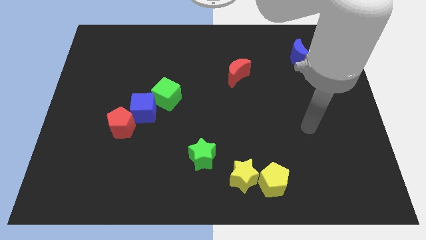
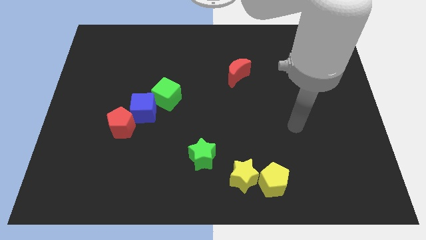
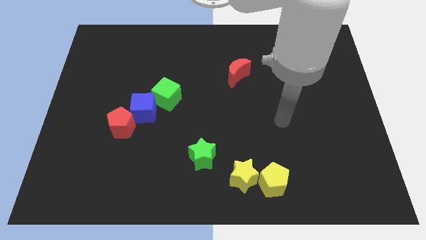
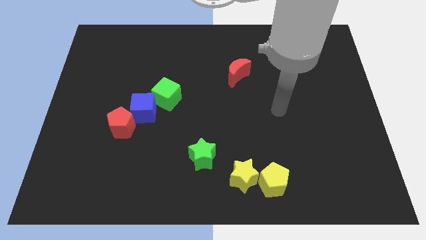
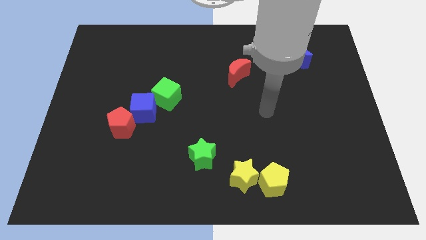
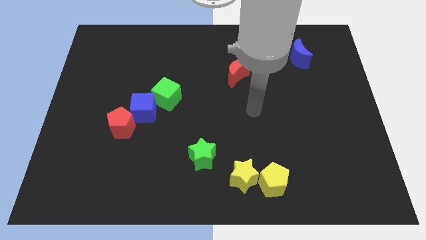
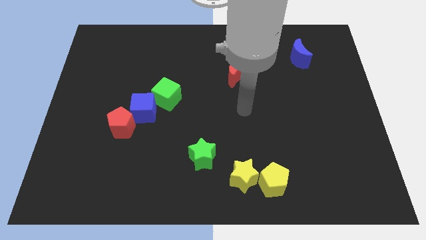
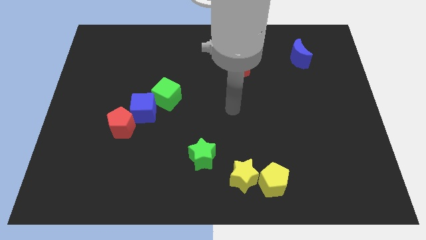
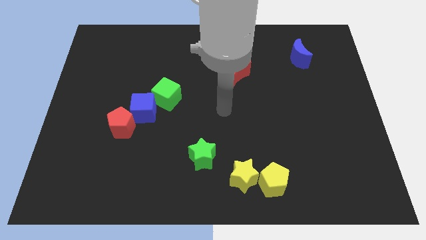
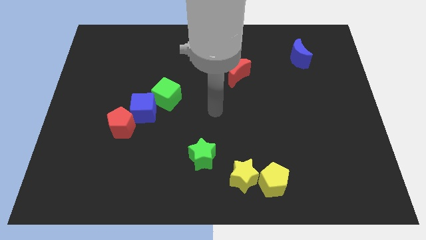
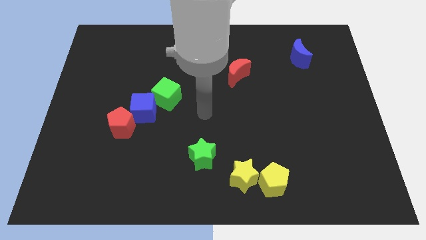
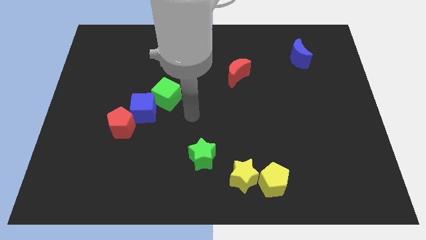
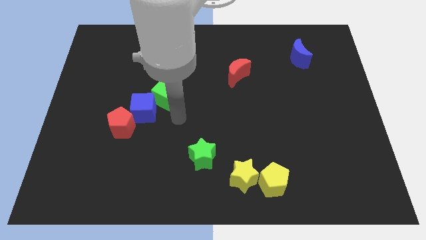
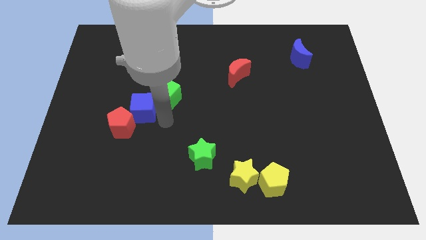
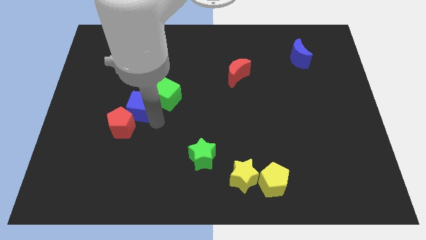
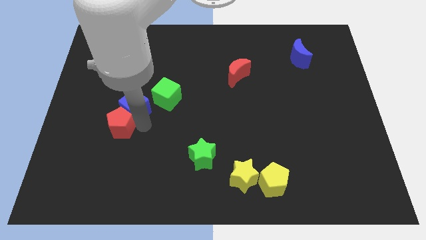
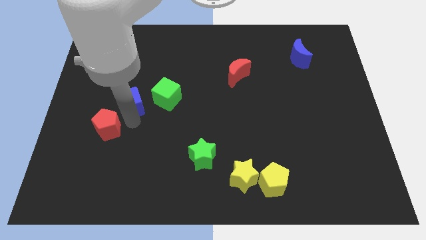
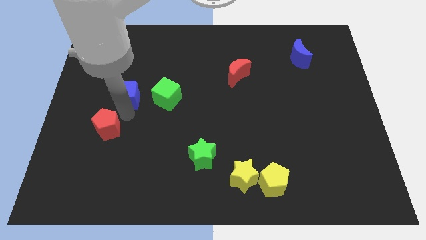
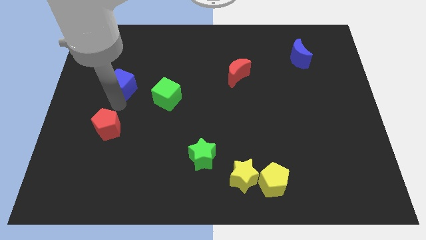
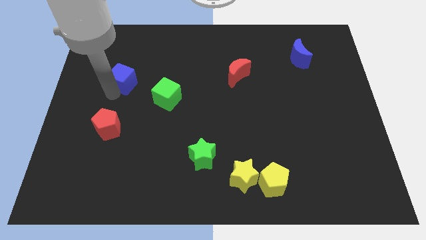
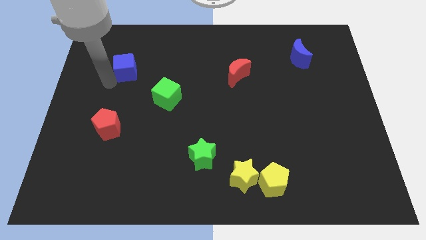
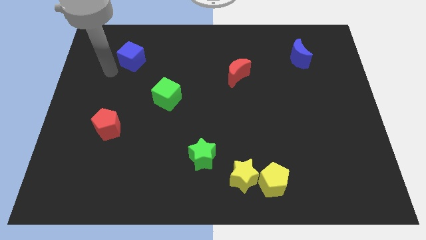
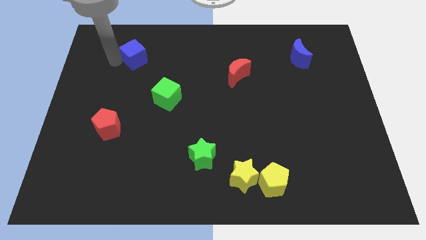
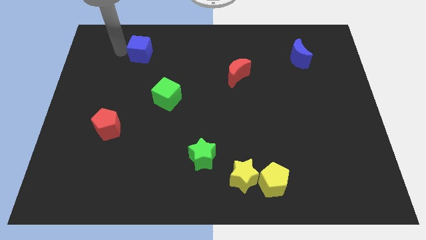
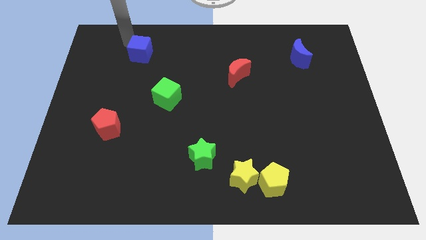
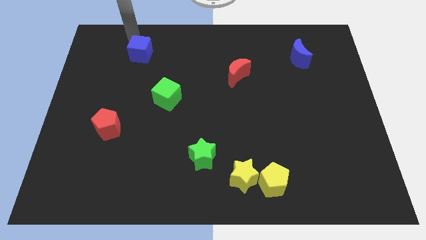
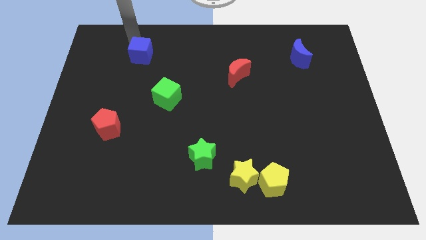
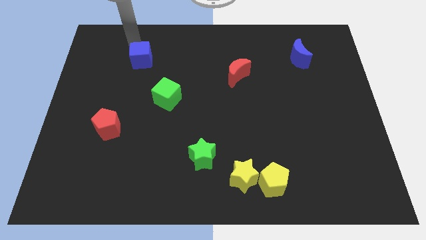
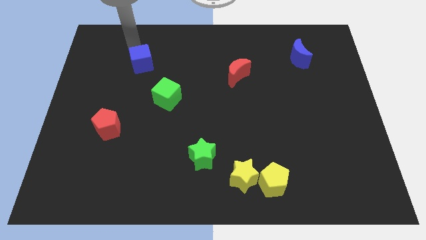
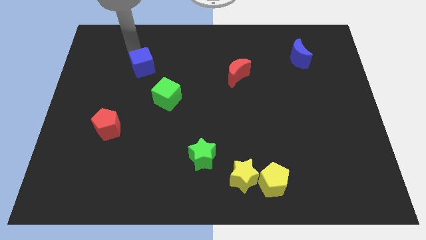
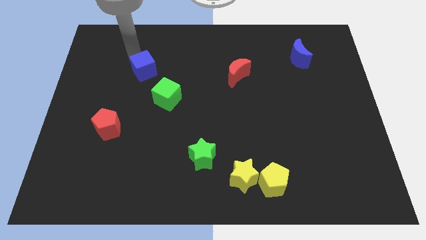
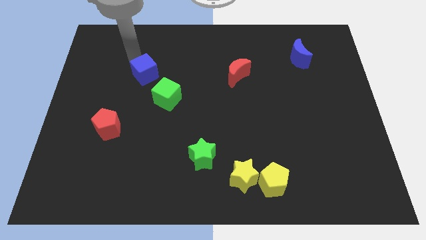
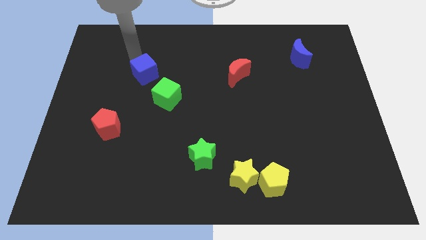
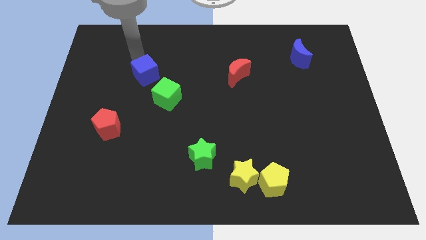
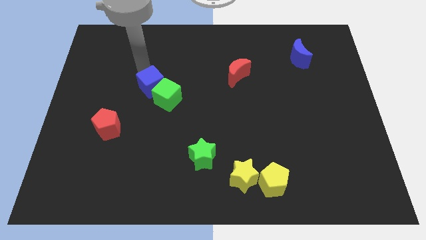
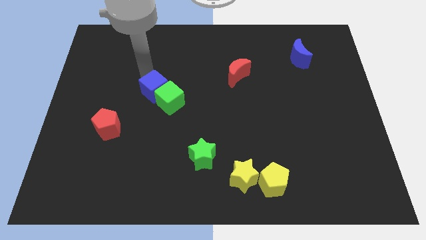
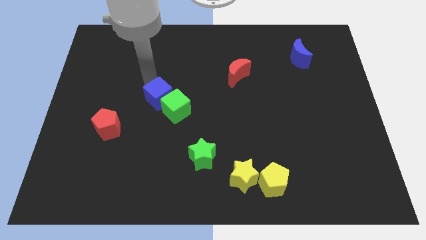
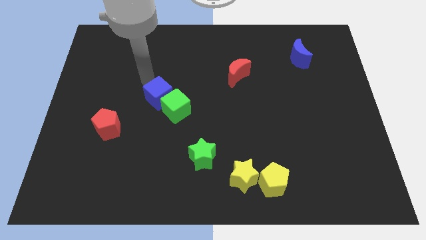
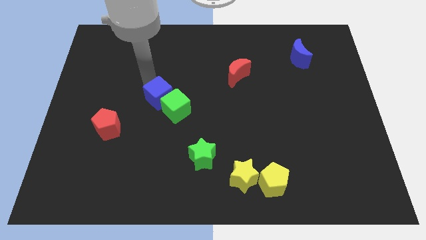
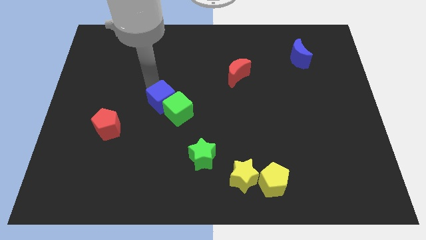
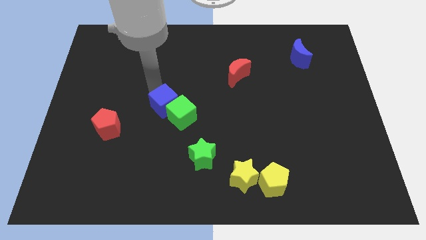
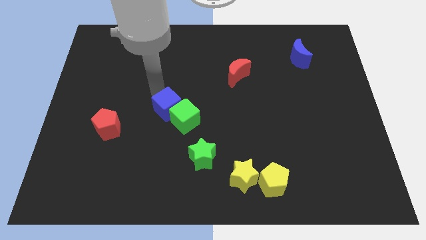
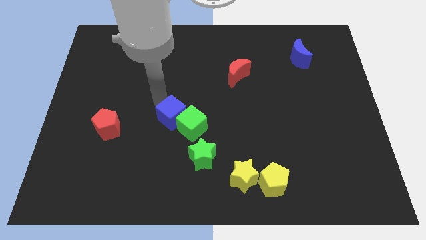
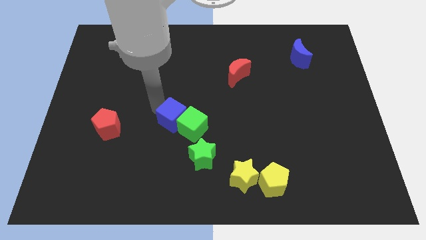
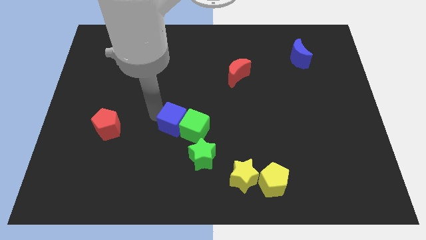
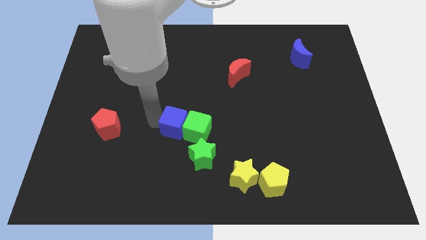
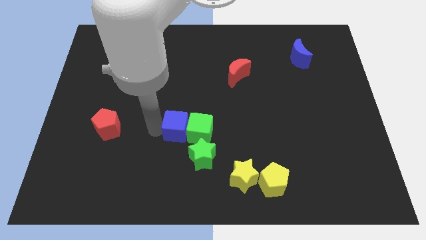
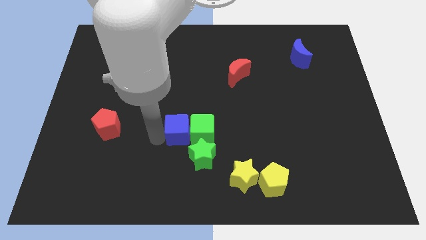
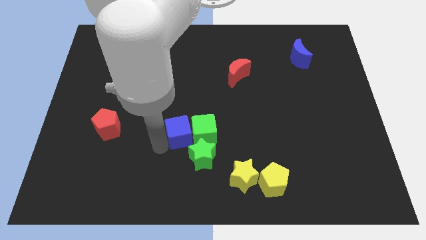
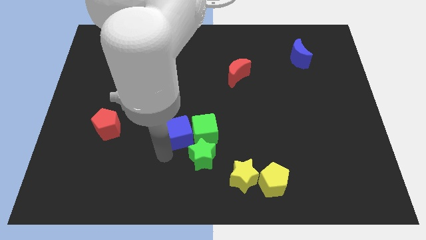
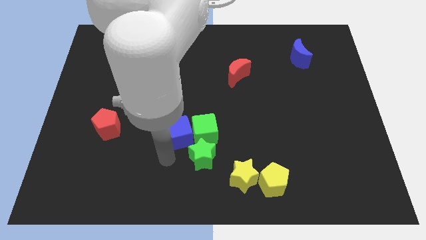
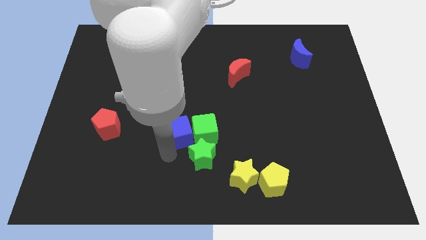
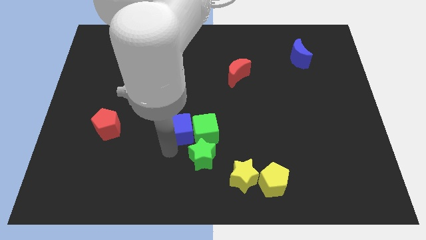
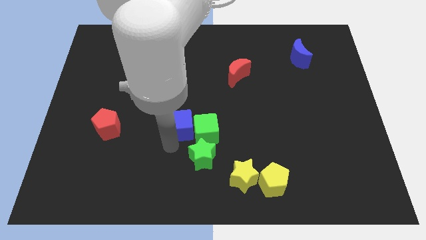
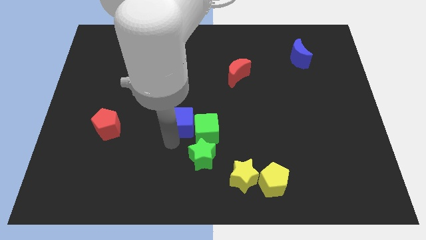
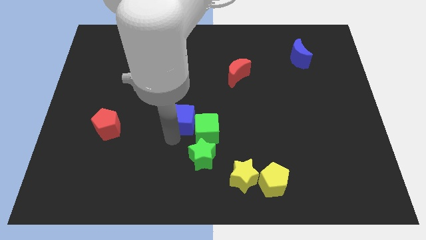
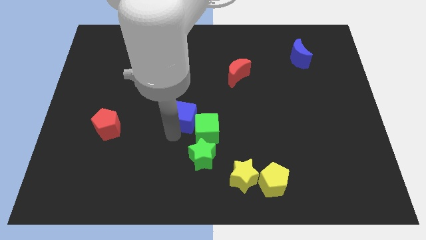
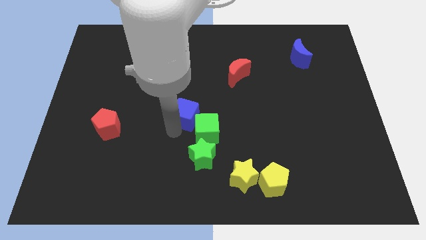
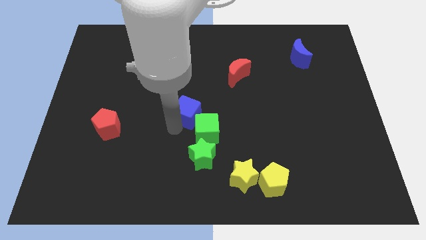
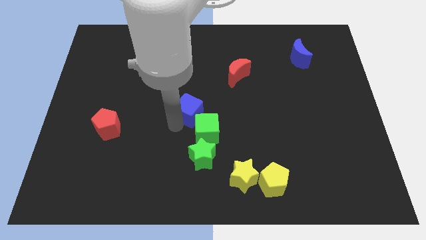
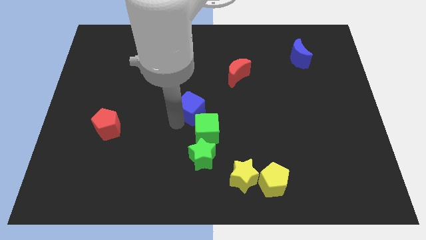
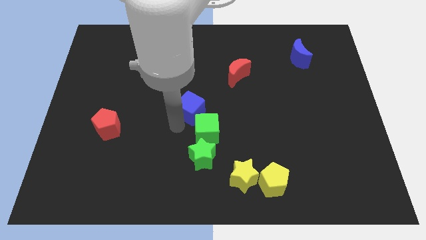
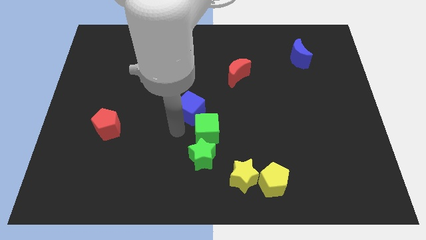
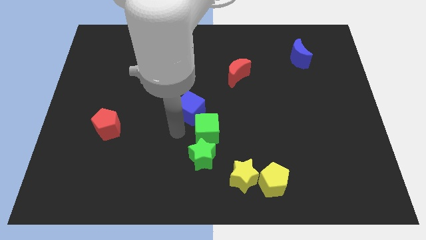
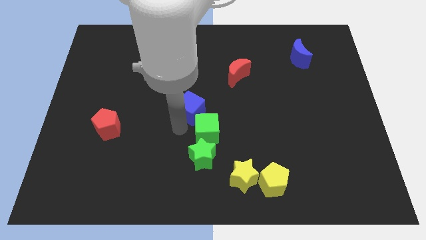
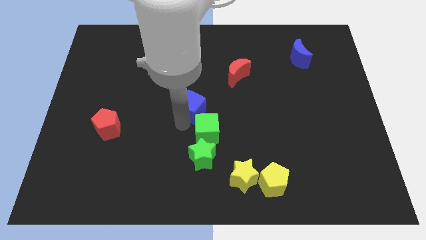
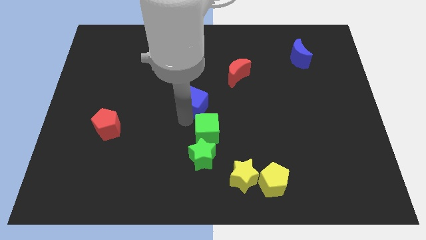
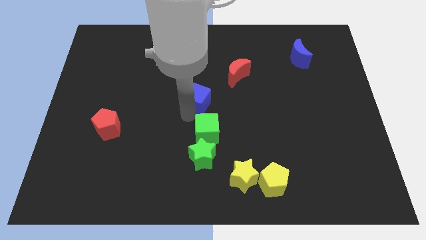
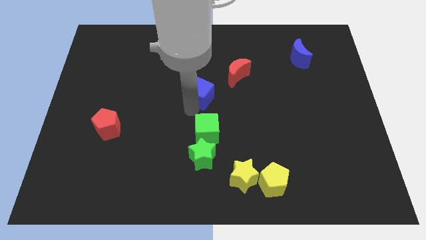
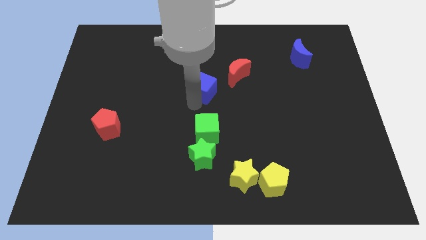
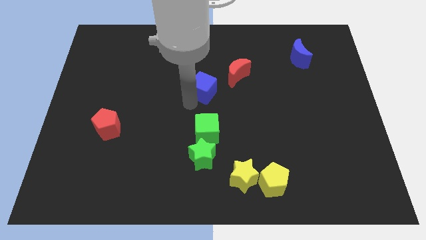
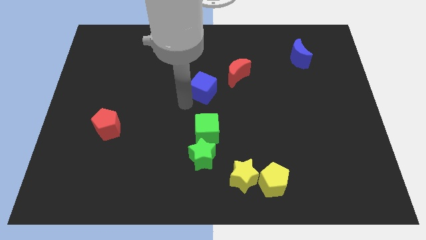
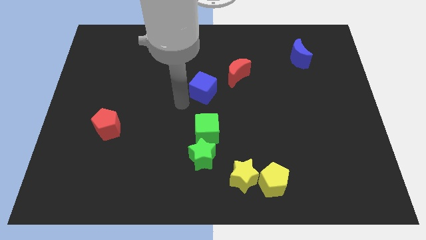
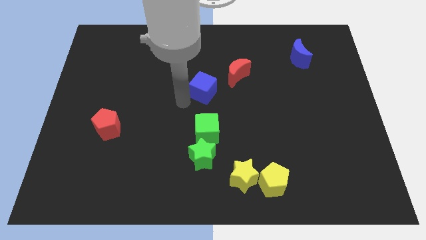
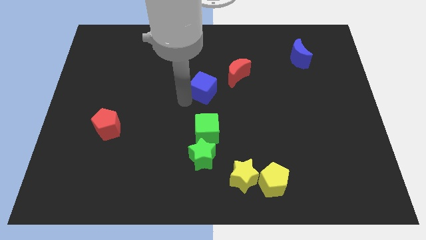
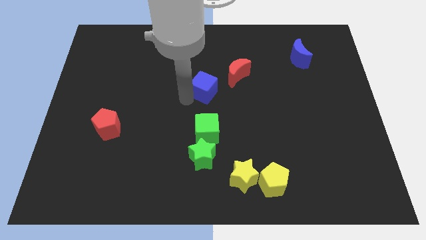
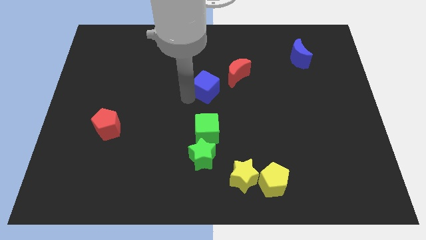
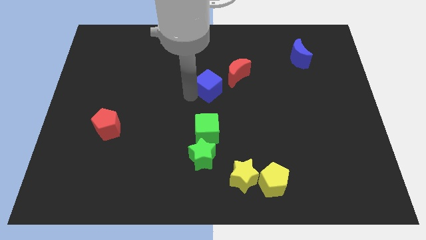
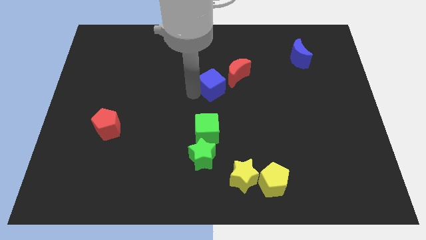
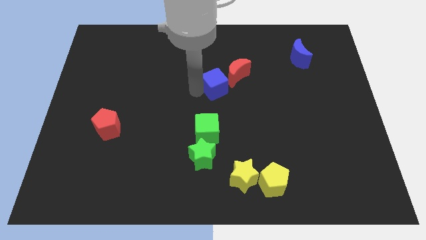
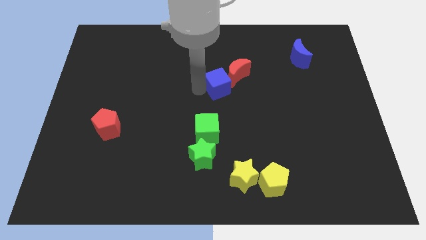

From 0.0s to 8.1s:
slide the blue cube close to the red moon
